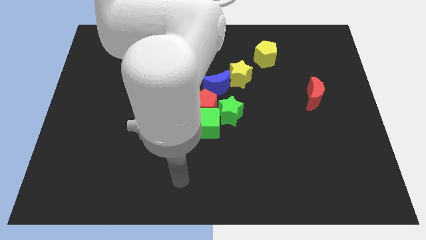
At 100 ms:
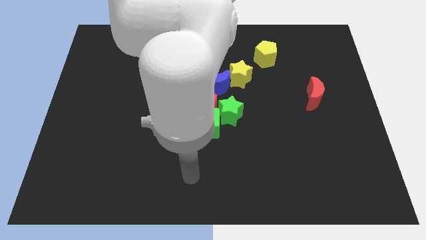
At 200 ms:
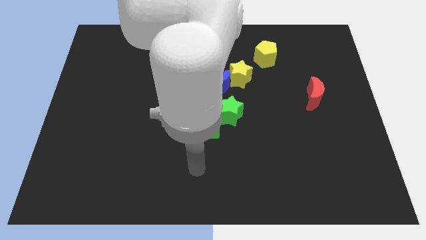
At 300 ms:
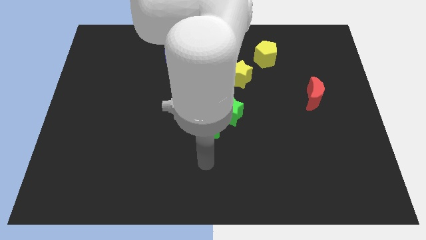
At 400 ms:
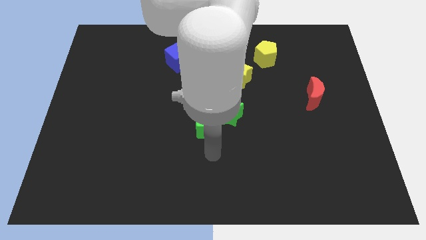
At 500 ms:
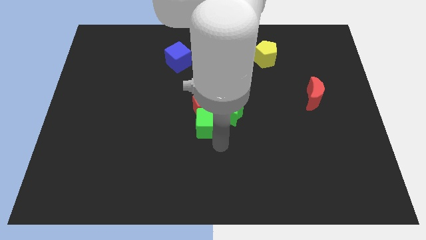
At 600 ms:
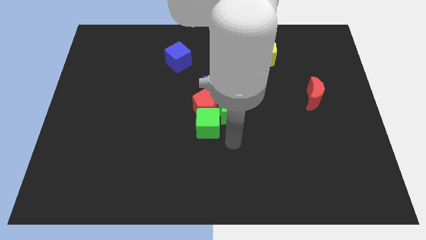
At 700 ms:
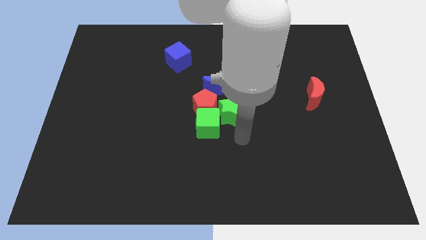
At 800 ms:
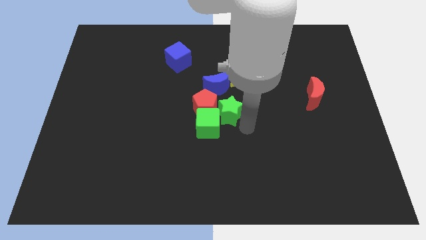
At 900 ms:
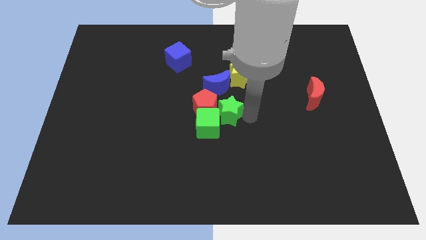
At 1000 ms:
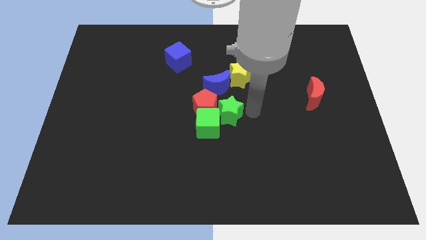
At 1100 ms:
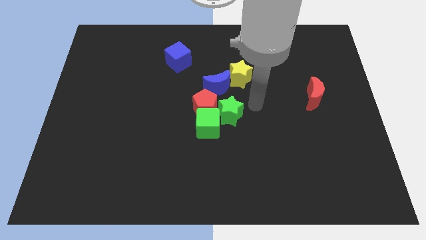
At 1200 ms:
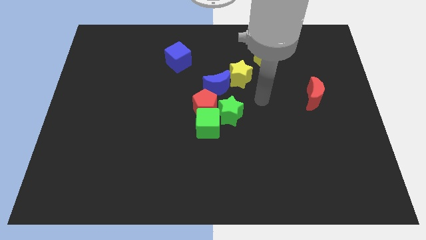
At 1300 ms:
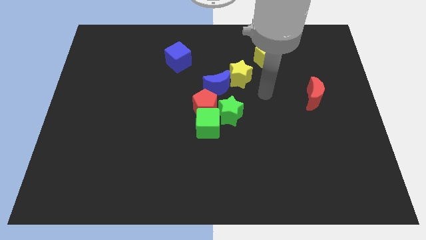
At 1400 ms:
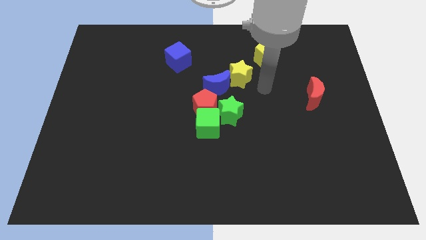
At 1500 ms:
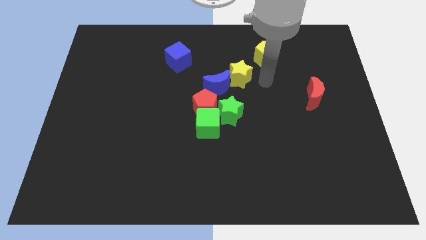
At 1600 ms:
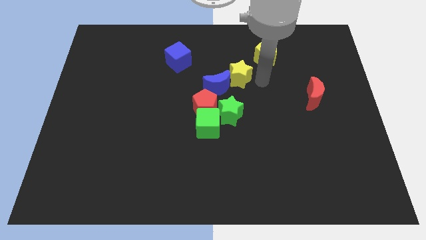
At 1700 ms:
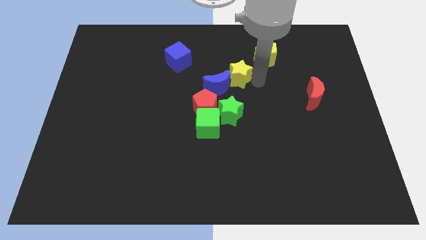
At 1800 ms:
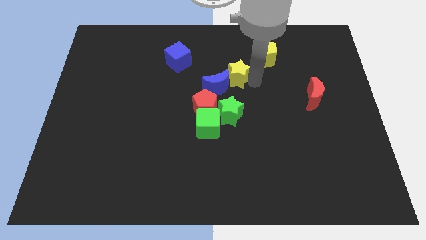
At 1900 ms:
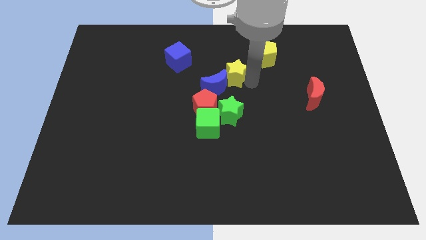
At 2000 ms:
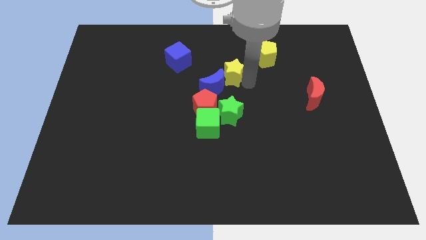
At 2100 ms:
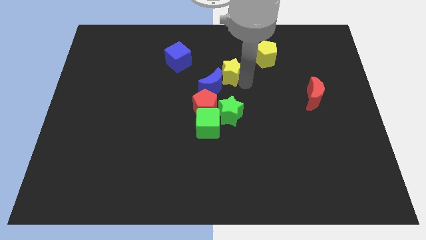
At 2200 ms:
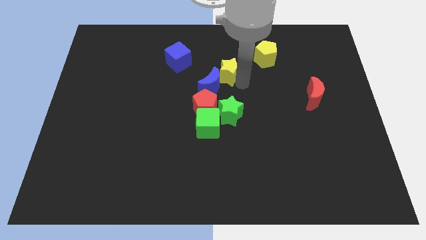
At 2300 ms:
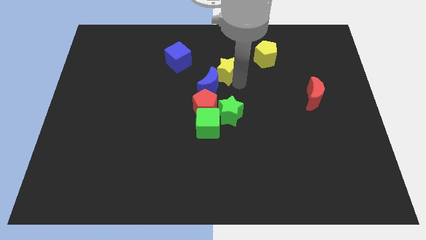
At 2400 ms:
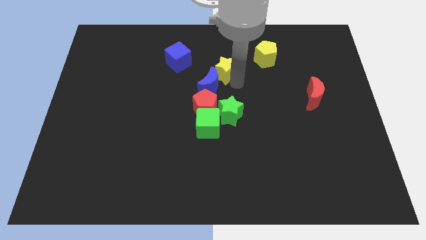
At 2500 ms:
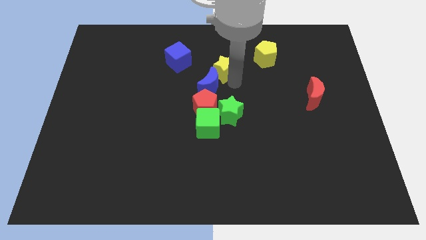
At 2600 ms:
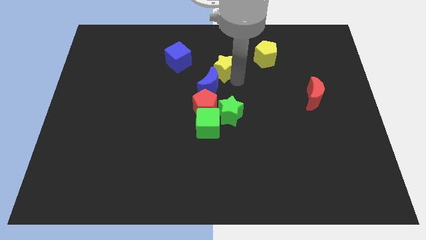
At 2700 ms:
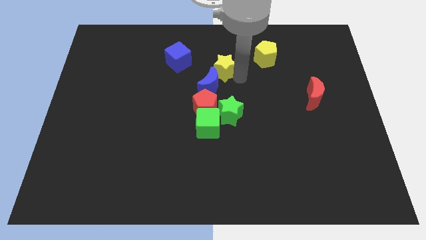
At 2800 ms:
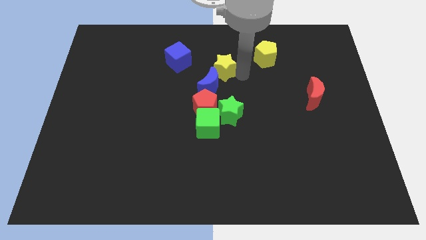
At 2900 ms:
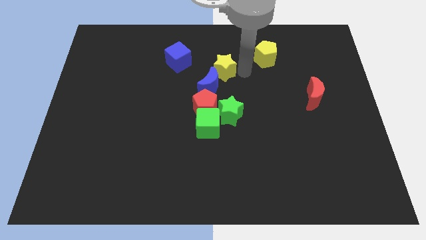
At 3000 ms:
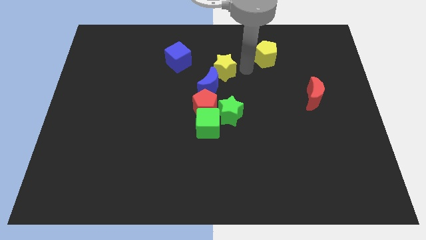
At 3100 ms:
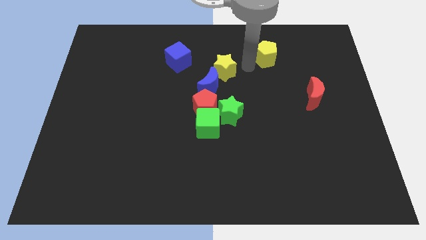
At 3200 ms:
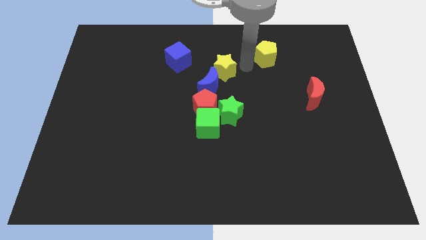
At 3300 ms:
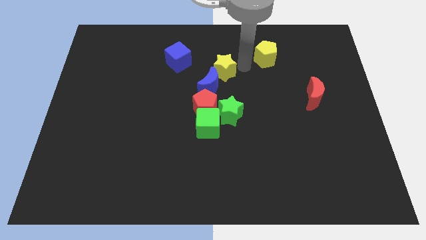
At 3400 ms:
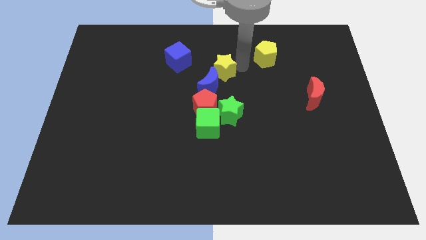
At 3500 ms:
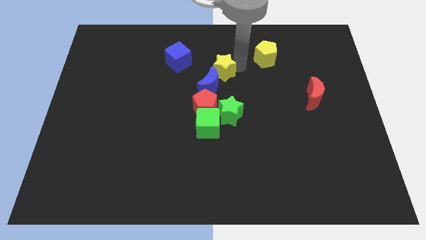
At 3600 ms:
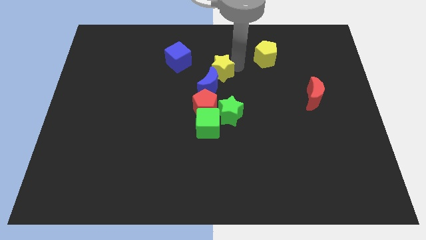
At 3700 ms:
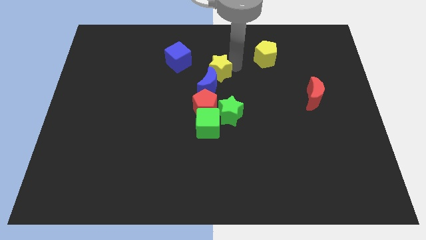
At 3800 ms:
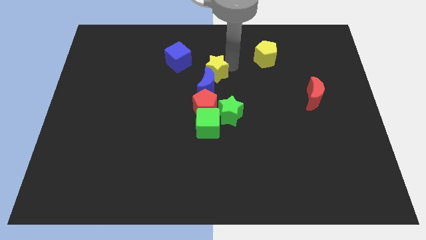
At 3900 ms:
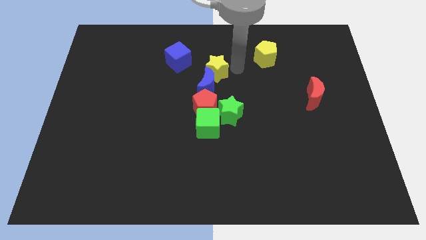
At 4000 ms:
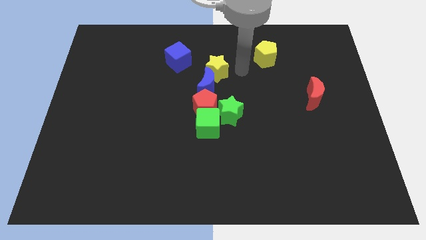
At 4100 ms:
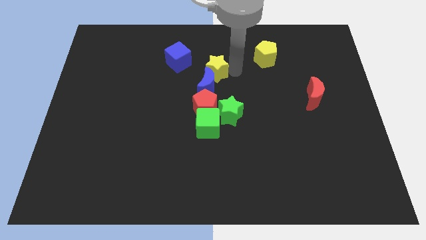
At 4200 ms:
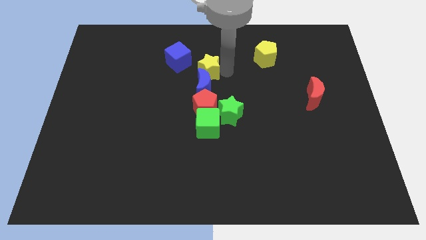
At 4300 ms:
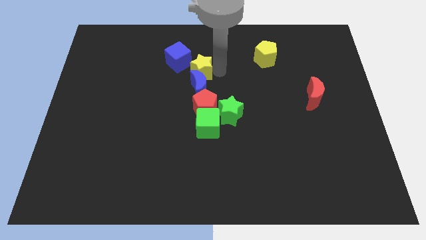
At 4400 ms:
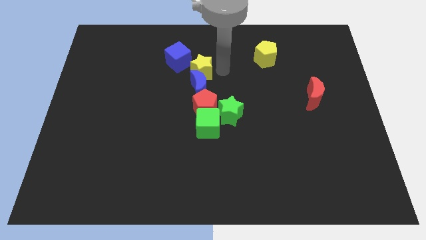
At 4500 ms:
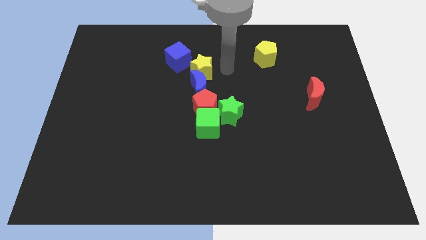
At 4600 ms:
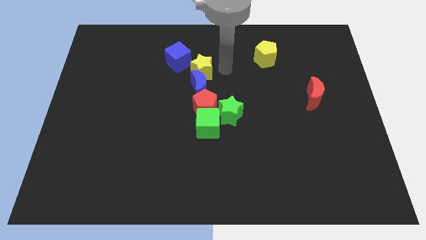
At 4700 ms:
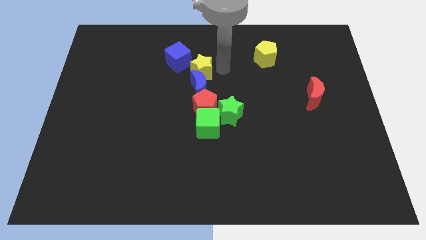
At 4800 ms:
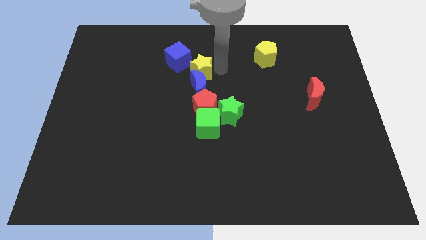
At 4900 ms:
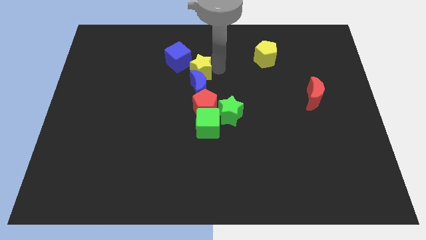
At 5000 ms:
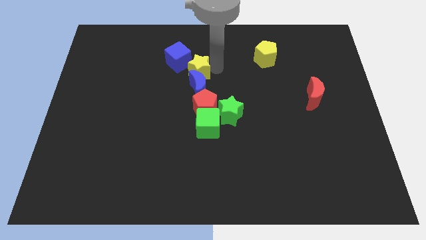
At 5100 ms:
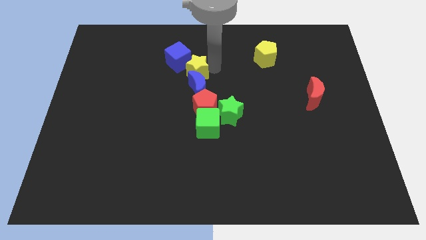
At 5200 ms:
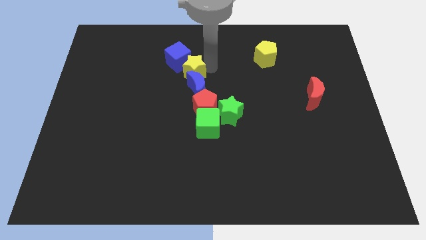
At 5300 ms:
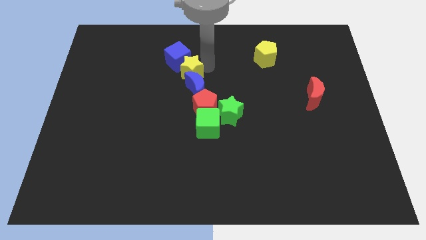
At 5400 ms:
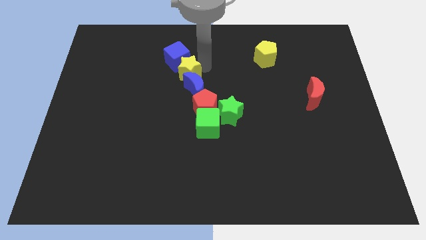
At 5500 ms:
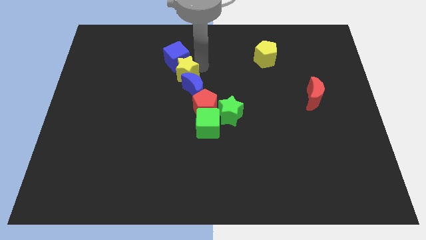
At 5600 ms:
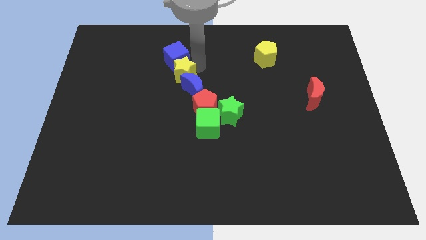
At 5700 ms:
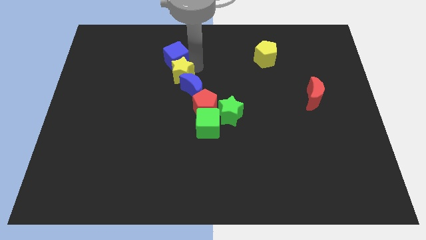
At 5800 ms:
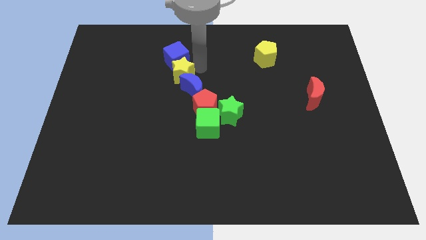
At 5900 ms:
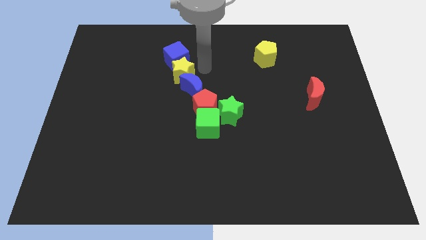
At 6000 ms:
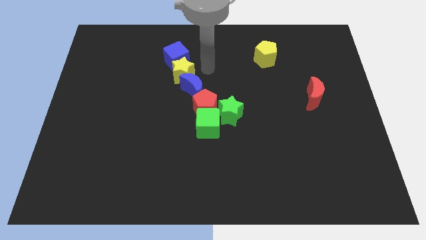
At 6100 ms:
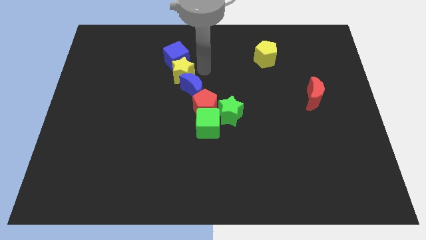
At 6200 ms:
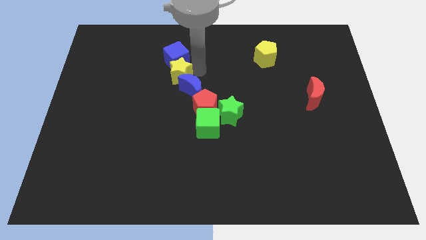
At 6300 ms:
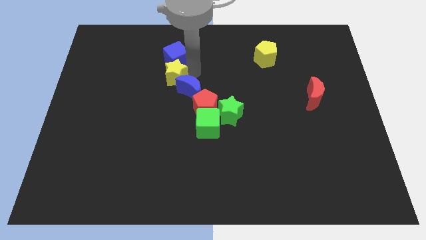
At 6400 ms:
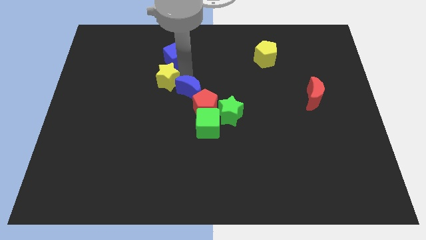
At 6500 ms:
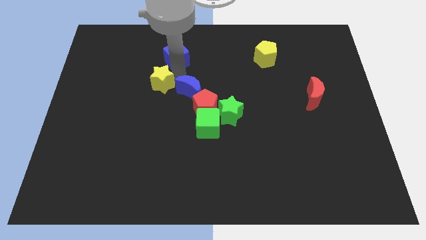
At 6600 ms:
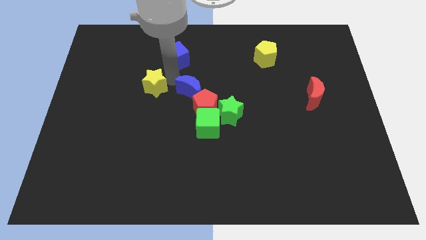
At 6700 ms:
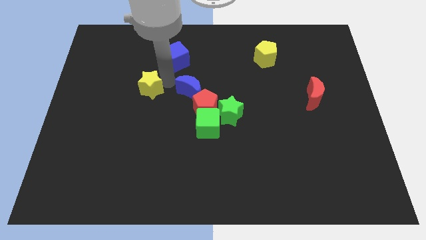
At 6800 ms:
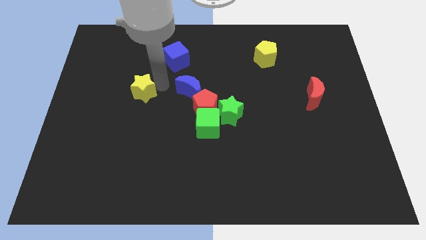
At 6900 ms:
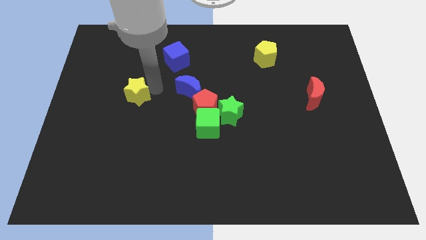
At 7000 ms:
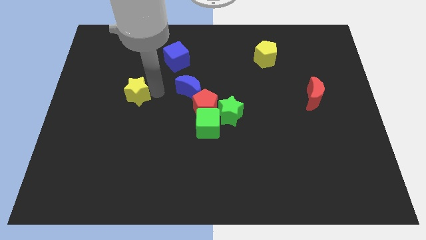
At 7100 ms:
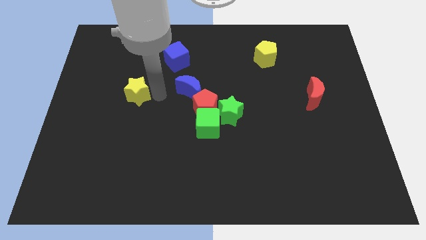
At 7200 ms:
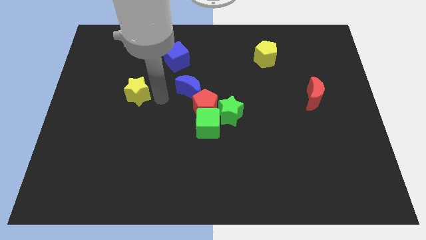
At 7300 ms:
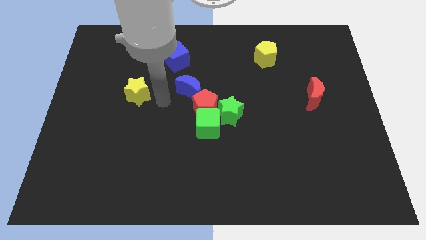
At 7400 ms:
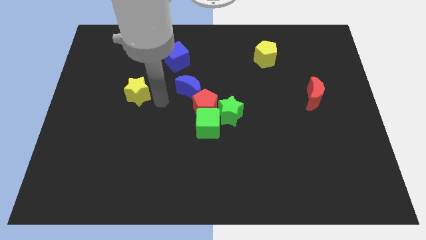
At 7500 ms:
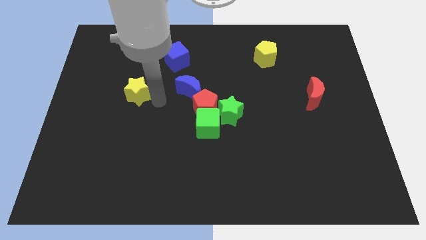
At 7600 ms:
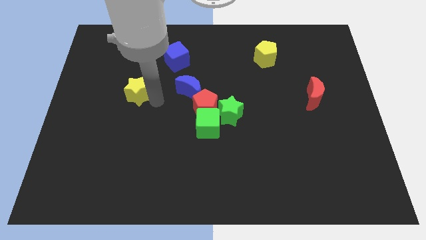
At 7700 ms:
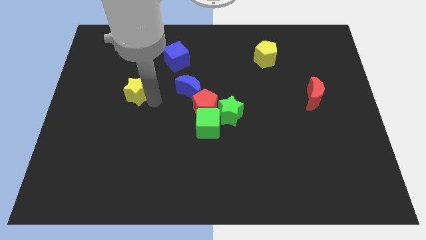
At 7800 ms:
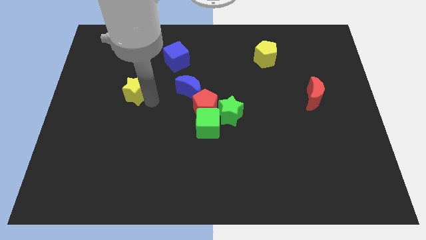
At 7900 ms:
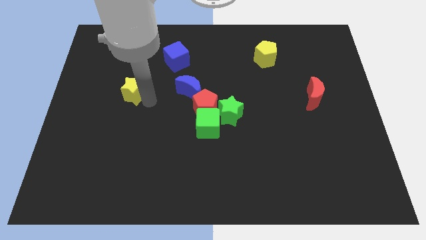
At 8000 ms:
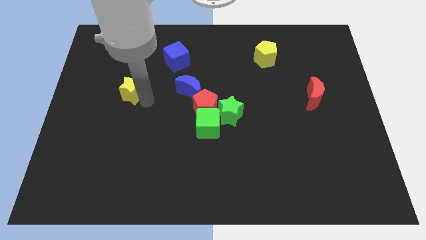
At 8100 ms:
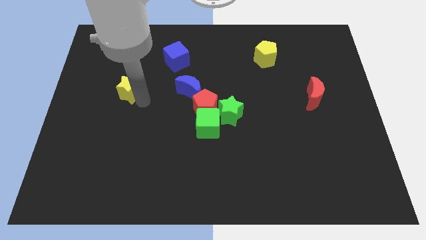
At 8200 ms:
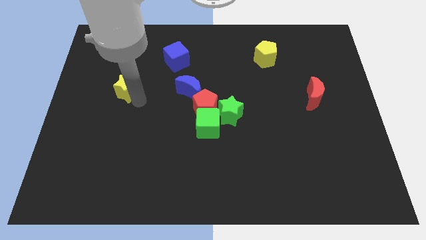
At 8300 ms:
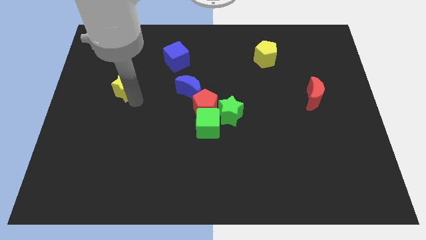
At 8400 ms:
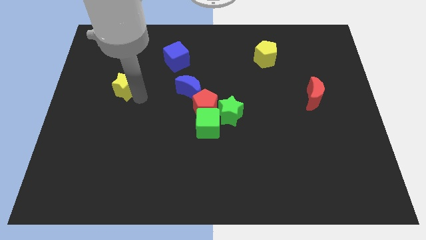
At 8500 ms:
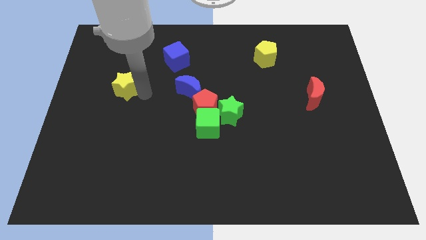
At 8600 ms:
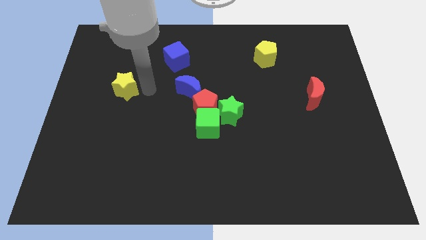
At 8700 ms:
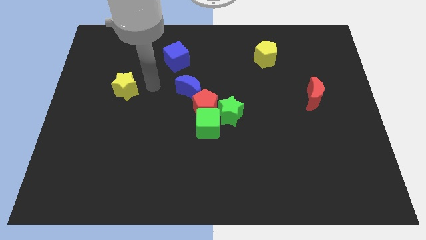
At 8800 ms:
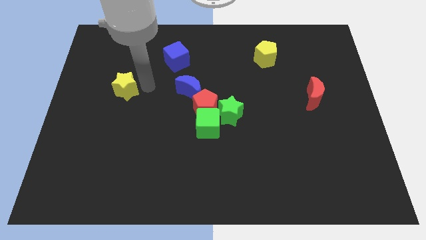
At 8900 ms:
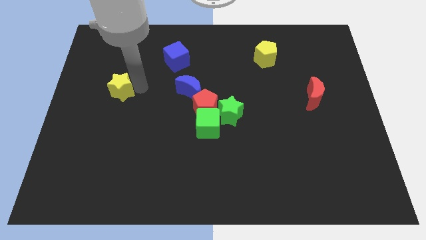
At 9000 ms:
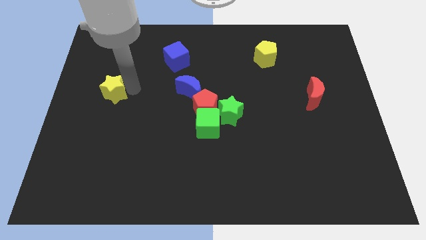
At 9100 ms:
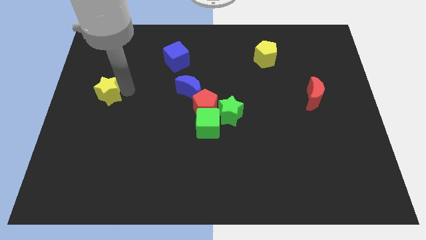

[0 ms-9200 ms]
push the yellow star to the center left
